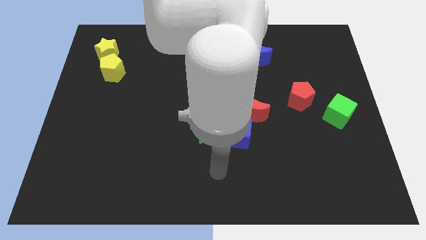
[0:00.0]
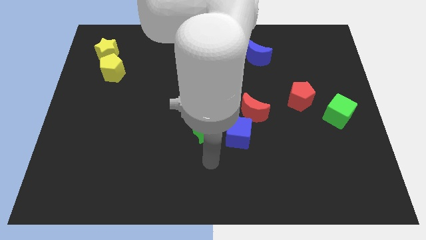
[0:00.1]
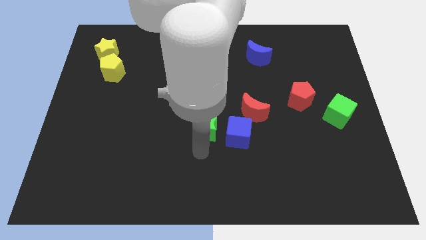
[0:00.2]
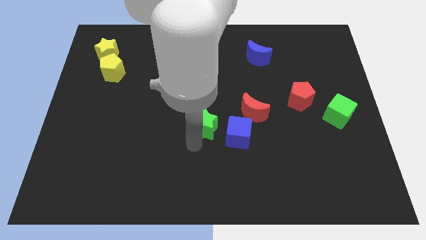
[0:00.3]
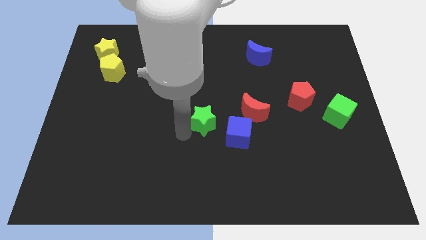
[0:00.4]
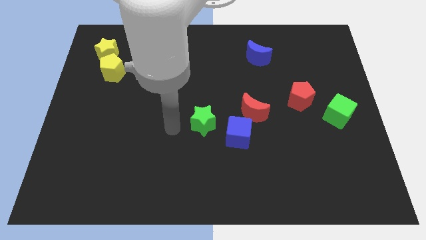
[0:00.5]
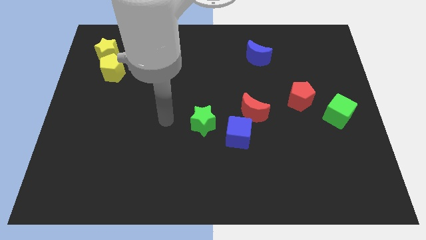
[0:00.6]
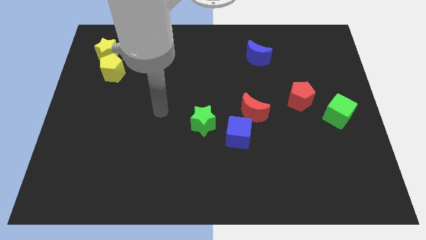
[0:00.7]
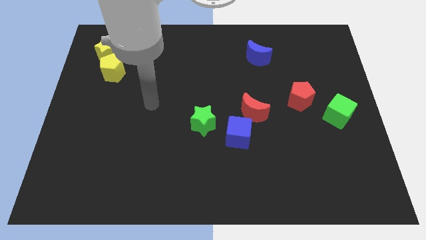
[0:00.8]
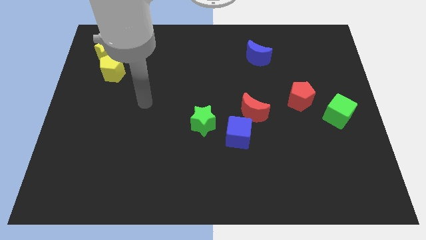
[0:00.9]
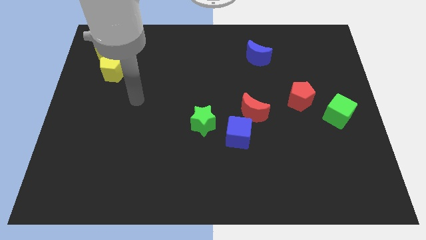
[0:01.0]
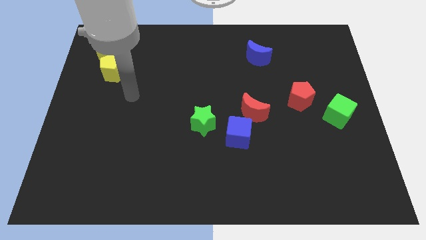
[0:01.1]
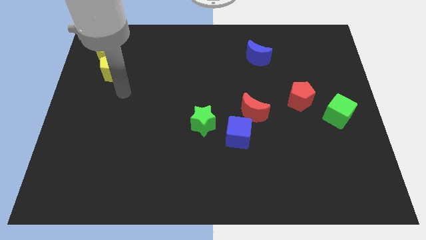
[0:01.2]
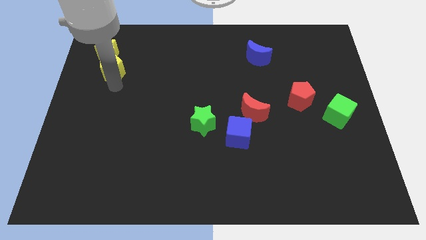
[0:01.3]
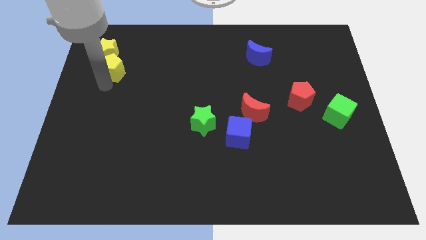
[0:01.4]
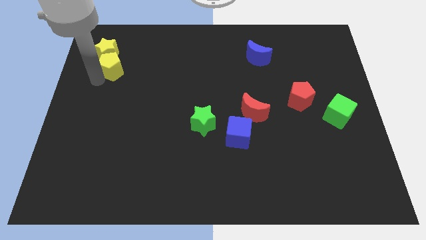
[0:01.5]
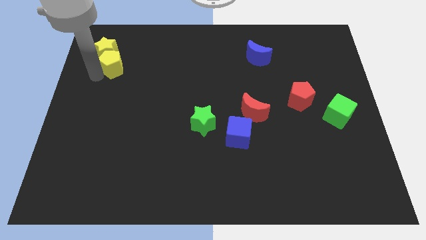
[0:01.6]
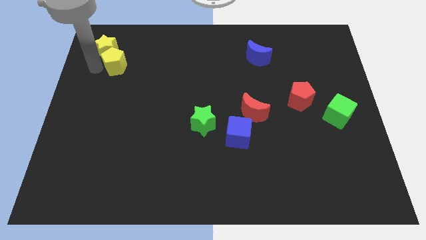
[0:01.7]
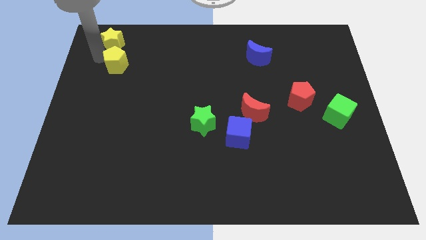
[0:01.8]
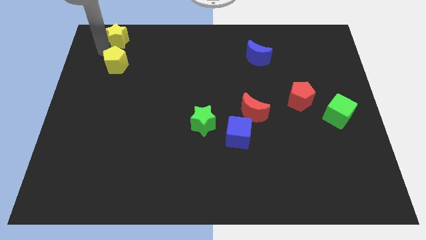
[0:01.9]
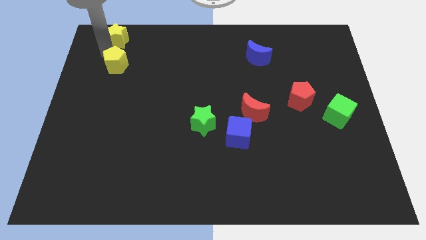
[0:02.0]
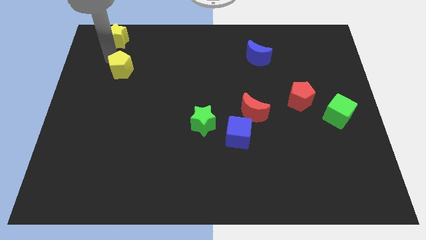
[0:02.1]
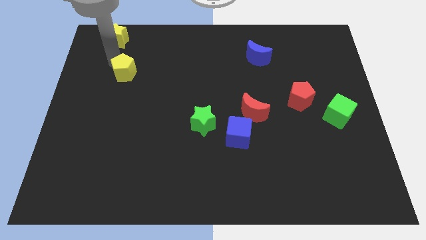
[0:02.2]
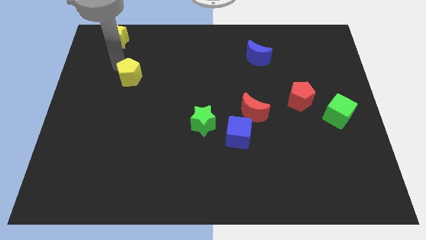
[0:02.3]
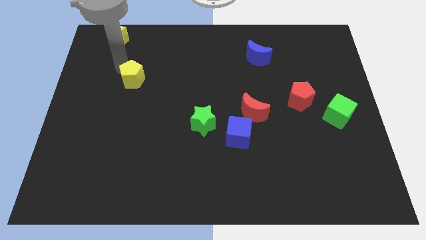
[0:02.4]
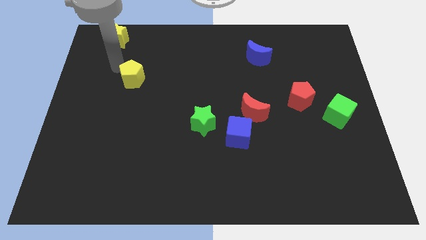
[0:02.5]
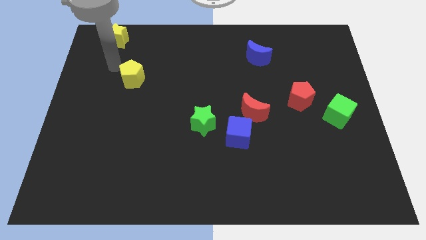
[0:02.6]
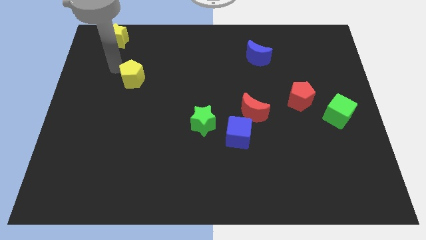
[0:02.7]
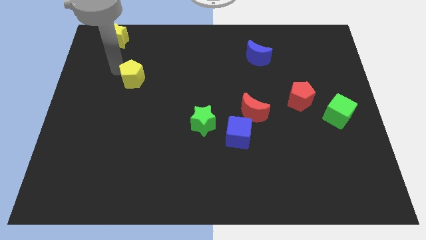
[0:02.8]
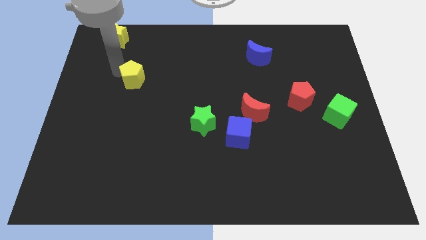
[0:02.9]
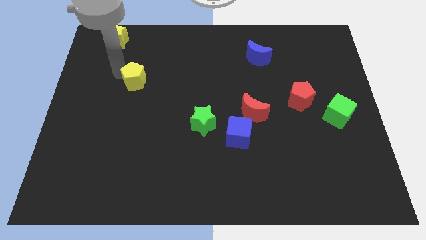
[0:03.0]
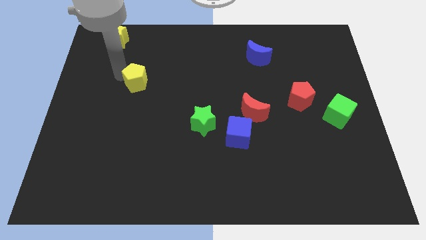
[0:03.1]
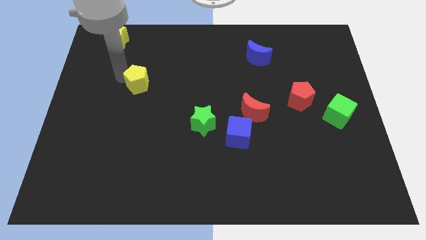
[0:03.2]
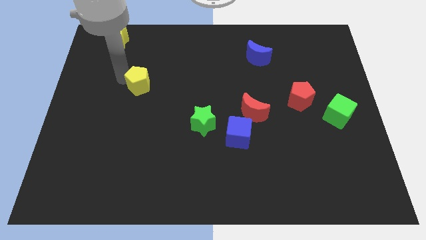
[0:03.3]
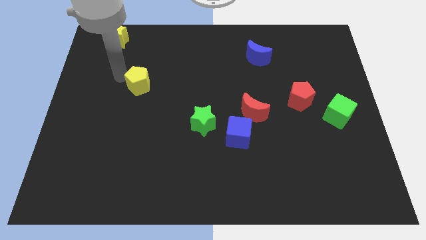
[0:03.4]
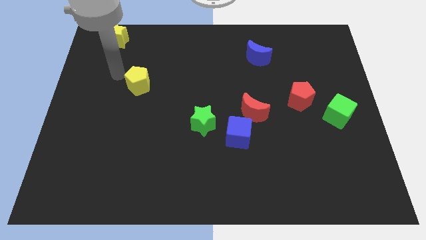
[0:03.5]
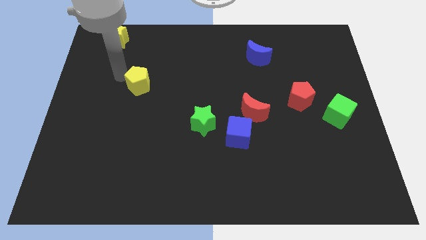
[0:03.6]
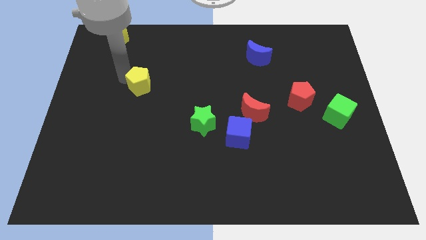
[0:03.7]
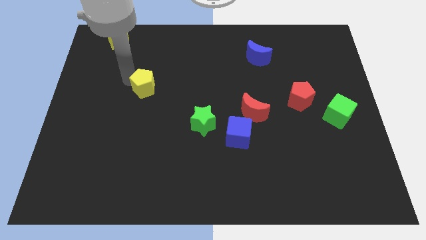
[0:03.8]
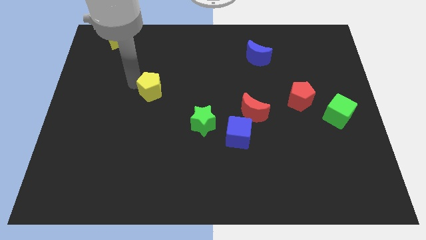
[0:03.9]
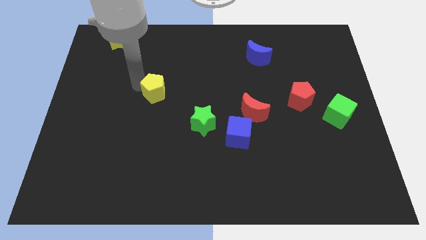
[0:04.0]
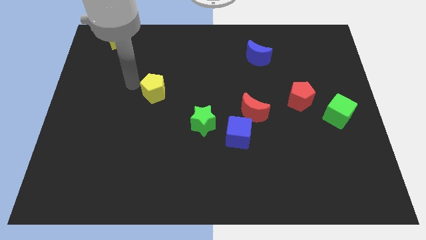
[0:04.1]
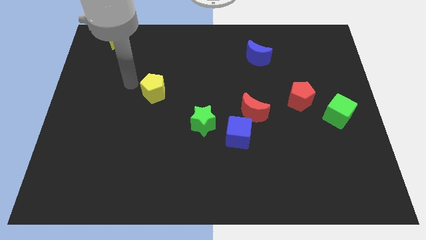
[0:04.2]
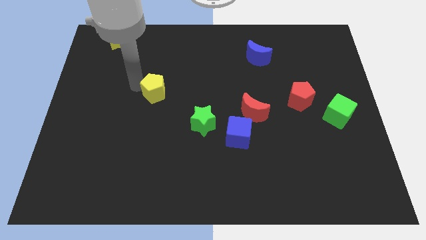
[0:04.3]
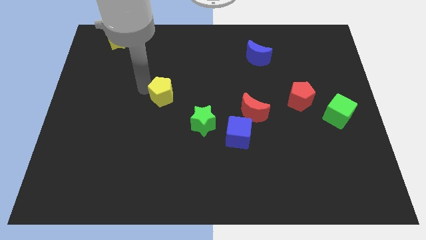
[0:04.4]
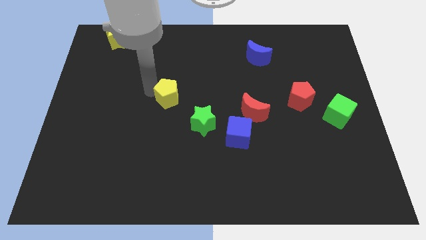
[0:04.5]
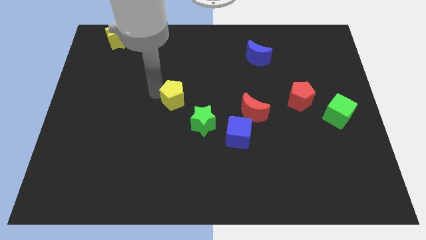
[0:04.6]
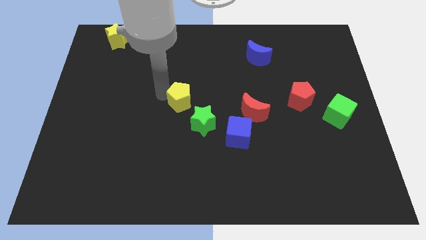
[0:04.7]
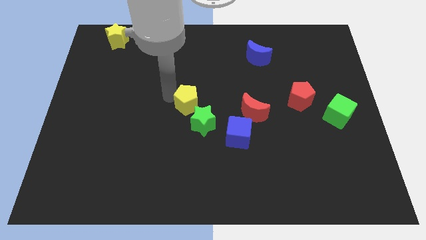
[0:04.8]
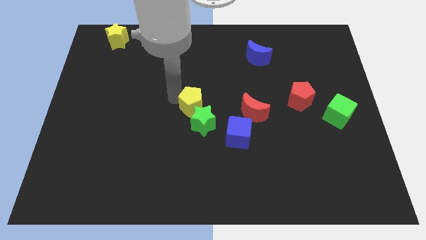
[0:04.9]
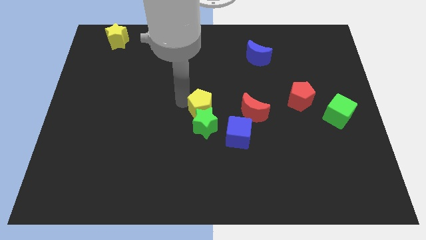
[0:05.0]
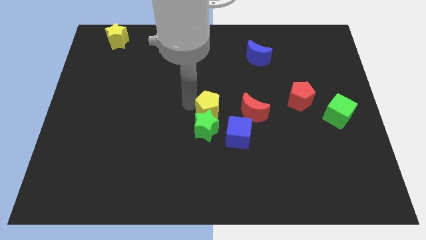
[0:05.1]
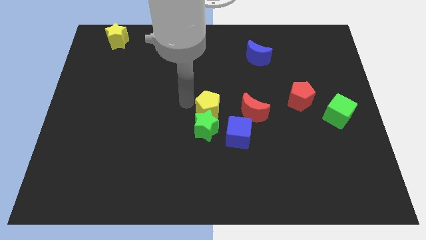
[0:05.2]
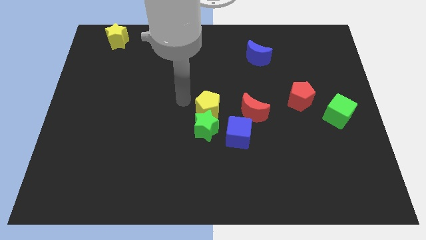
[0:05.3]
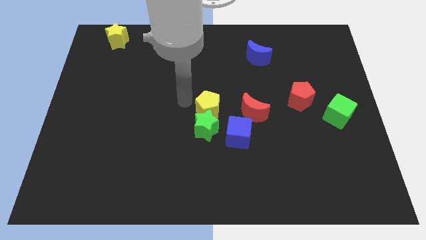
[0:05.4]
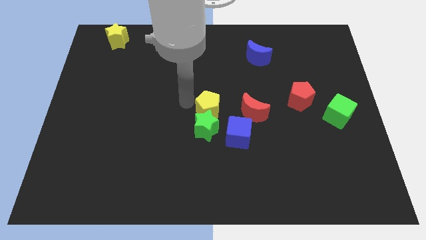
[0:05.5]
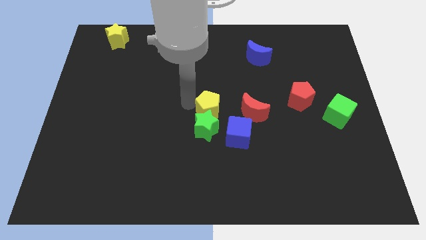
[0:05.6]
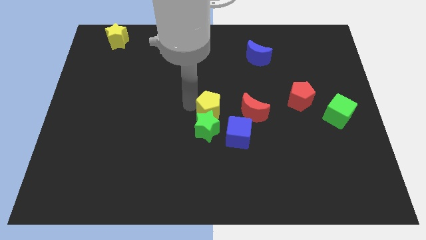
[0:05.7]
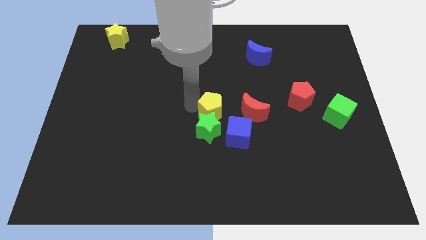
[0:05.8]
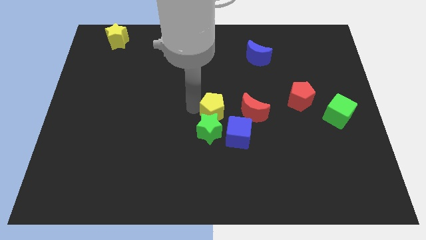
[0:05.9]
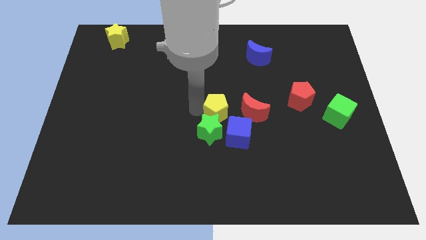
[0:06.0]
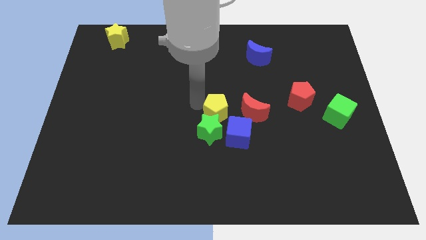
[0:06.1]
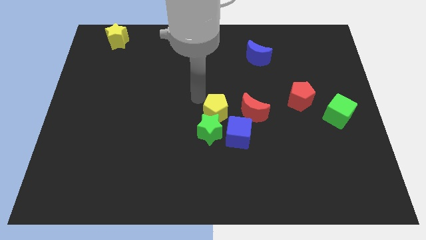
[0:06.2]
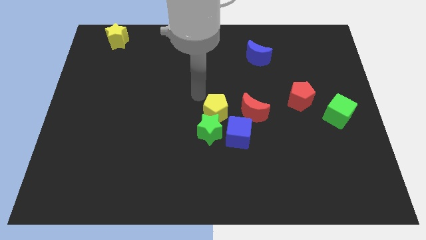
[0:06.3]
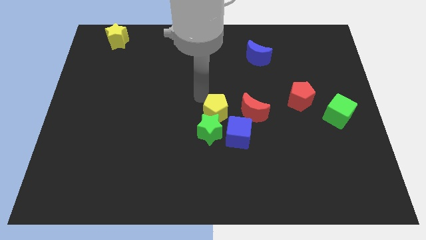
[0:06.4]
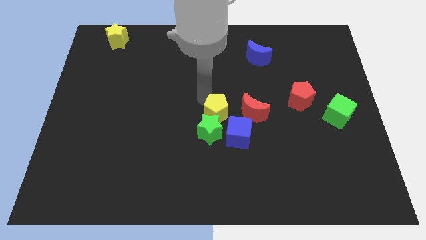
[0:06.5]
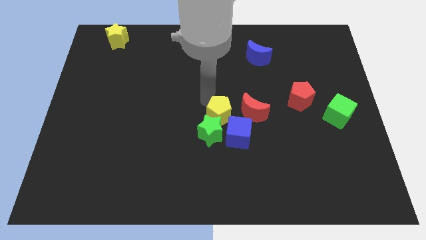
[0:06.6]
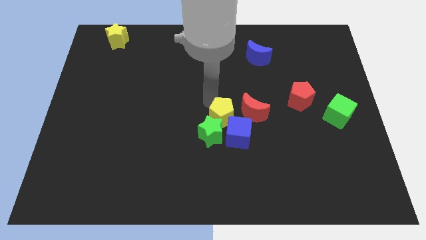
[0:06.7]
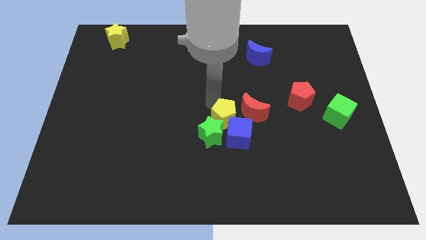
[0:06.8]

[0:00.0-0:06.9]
move the yellow pentagon to the blue cube
